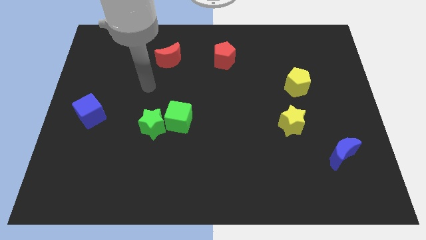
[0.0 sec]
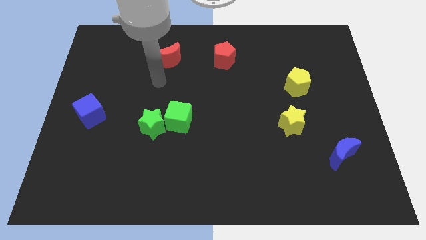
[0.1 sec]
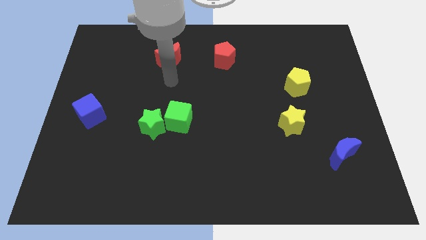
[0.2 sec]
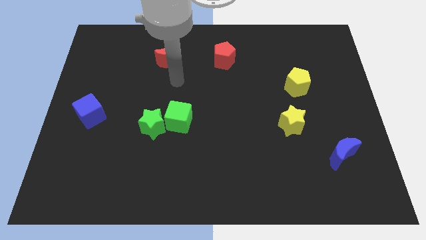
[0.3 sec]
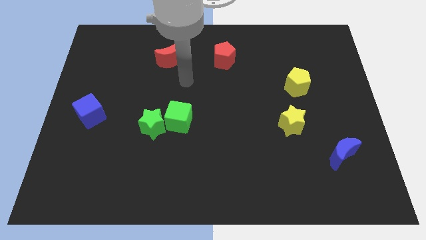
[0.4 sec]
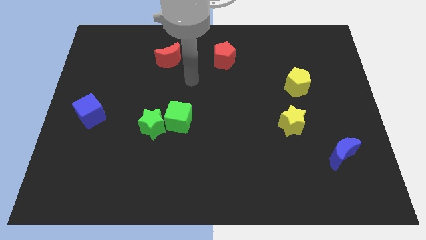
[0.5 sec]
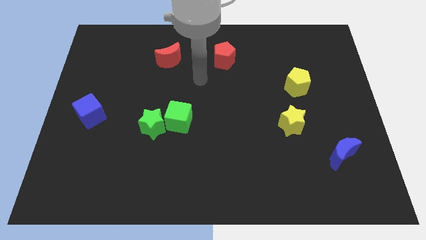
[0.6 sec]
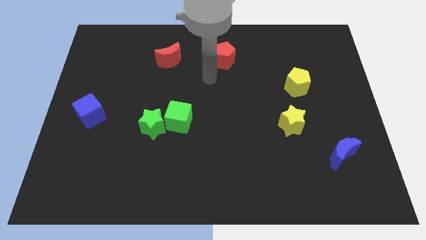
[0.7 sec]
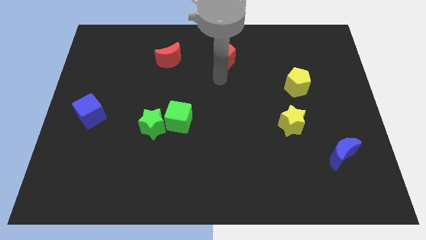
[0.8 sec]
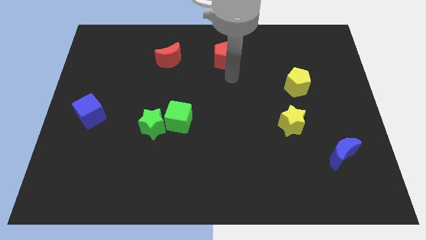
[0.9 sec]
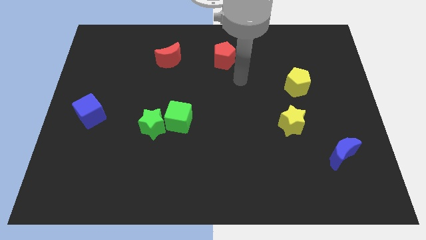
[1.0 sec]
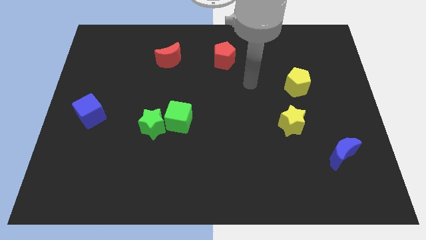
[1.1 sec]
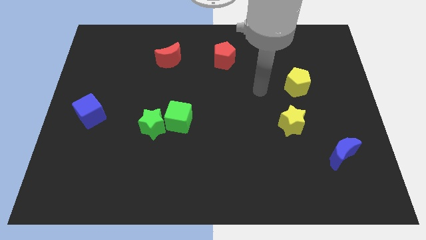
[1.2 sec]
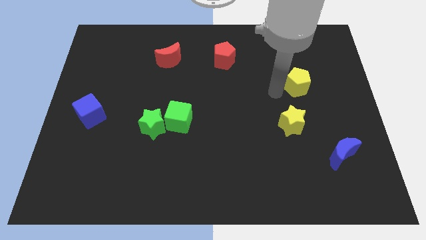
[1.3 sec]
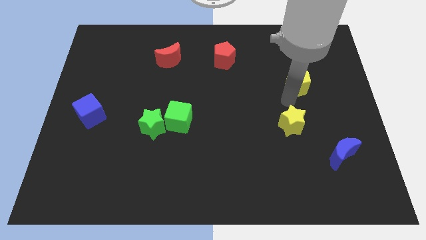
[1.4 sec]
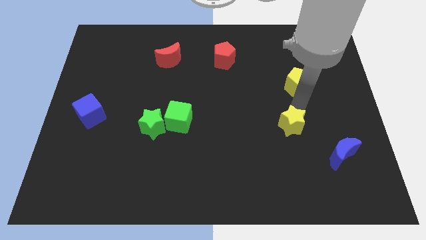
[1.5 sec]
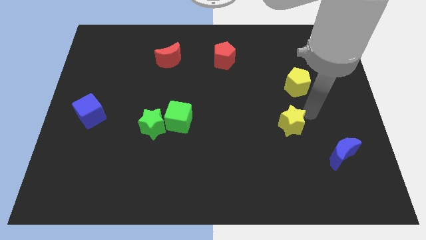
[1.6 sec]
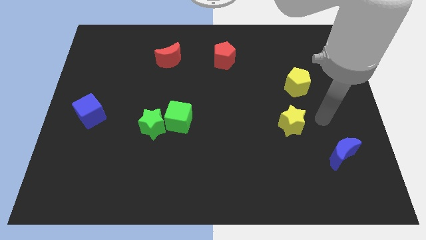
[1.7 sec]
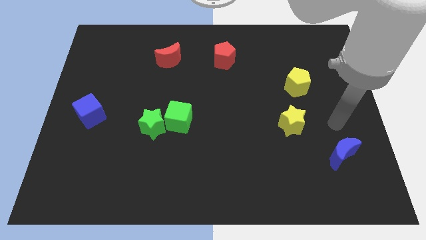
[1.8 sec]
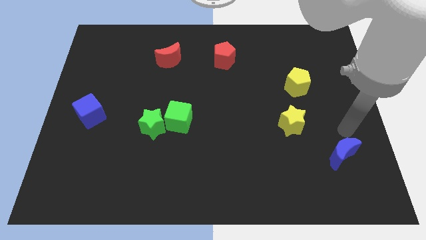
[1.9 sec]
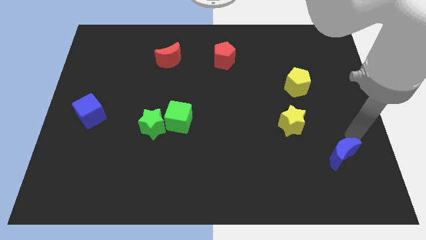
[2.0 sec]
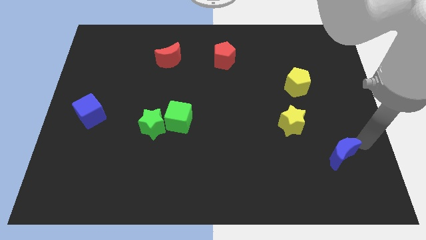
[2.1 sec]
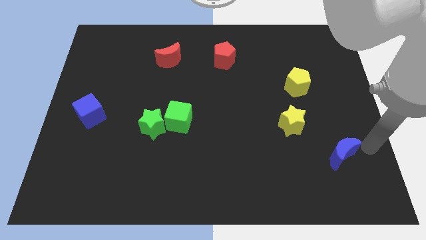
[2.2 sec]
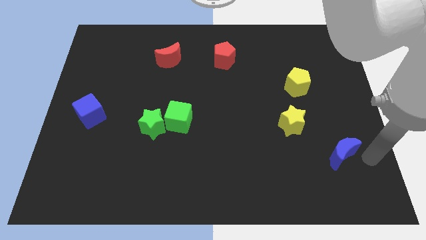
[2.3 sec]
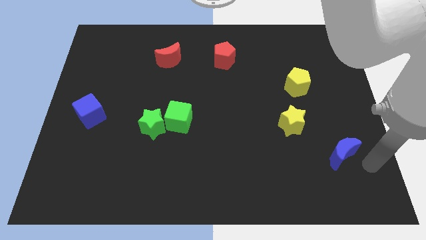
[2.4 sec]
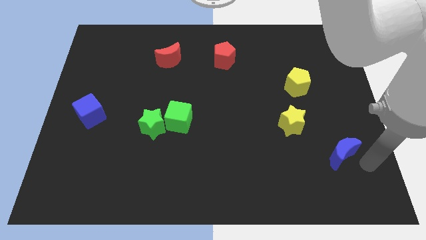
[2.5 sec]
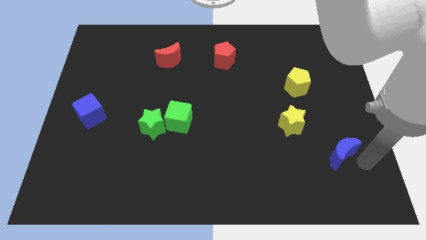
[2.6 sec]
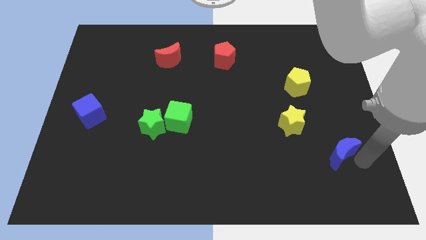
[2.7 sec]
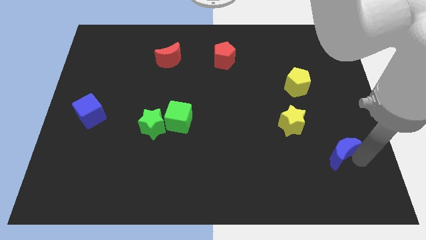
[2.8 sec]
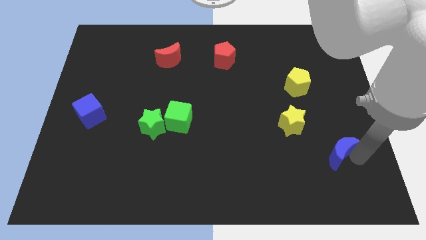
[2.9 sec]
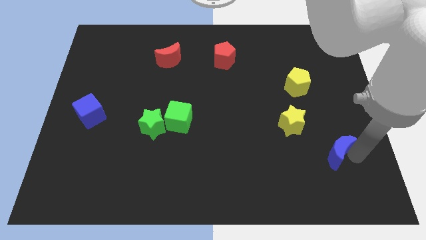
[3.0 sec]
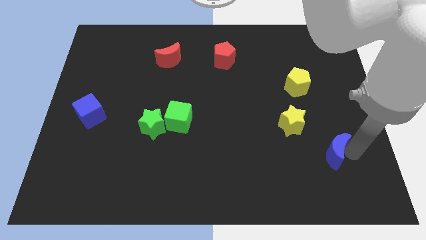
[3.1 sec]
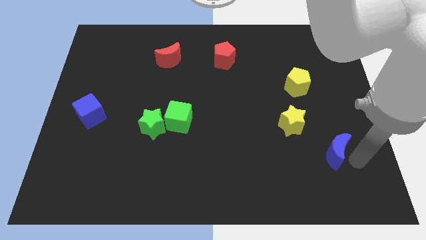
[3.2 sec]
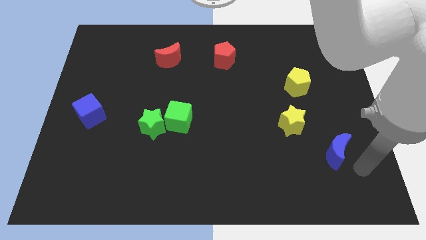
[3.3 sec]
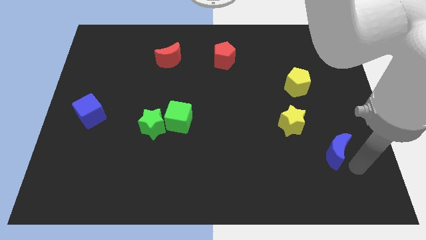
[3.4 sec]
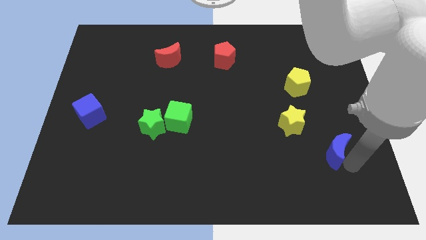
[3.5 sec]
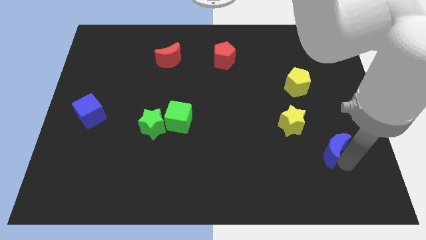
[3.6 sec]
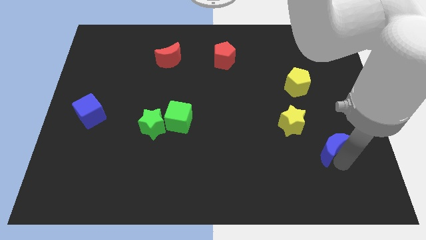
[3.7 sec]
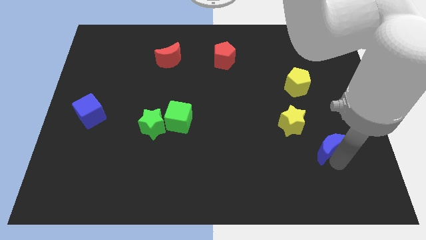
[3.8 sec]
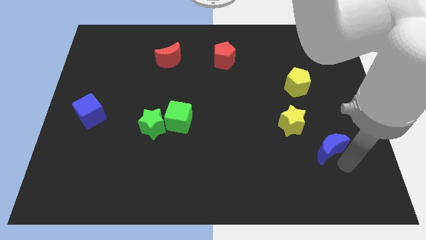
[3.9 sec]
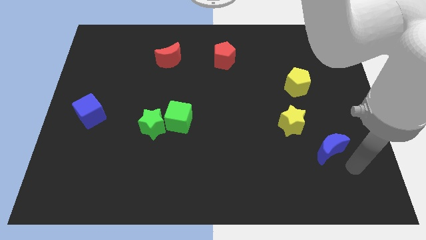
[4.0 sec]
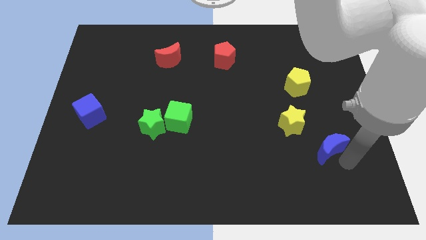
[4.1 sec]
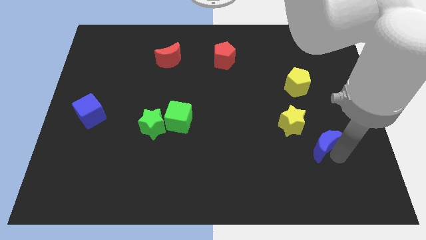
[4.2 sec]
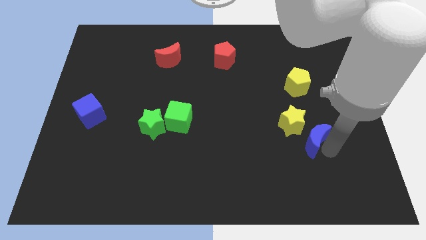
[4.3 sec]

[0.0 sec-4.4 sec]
put the blue moon towards the yellow star

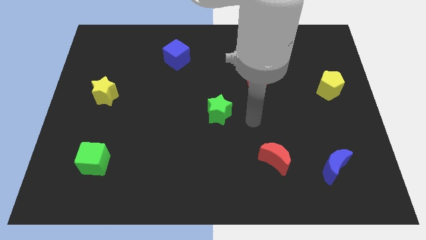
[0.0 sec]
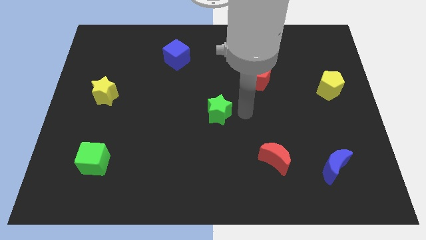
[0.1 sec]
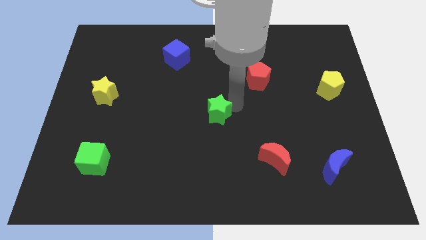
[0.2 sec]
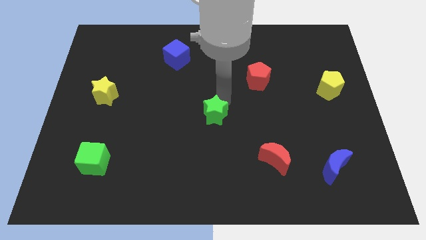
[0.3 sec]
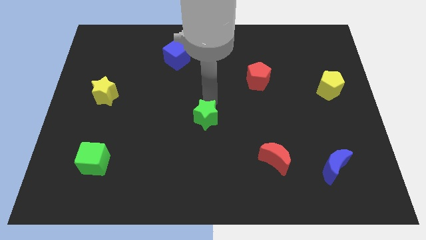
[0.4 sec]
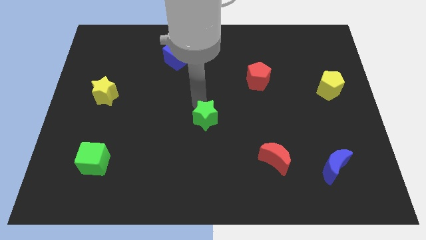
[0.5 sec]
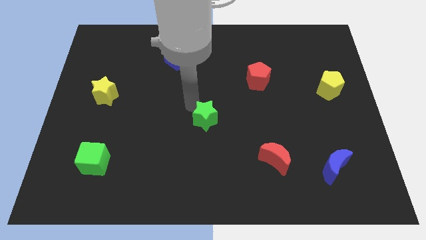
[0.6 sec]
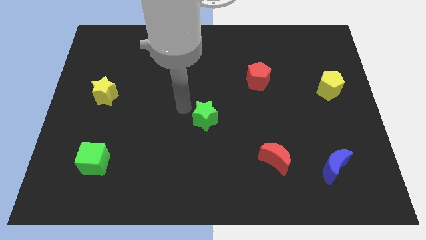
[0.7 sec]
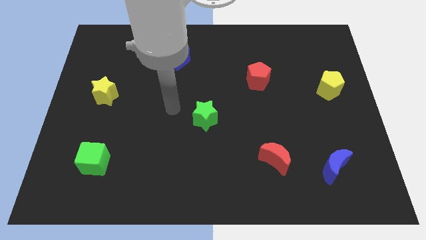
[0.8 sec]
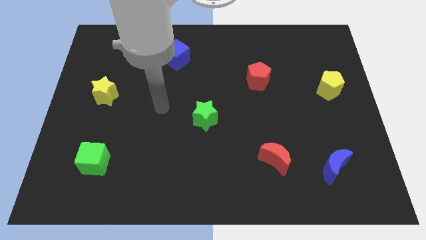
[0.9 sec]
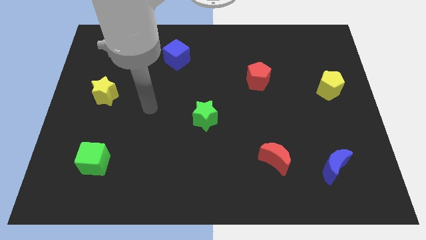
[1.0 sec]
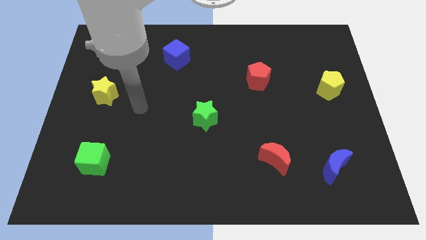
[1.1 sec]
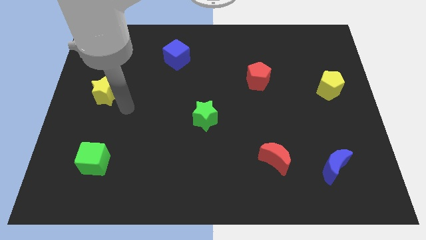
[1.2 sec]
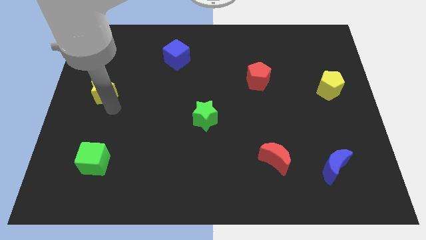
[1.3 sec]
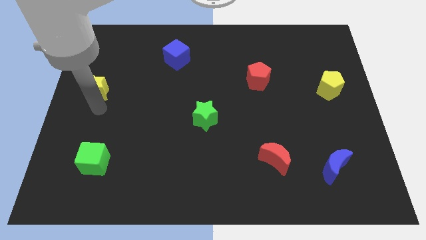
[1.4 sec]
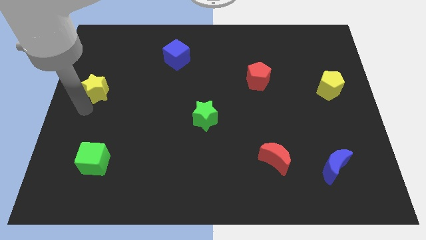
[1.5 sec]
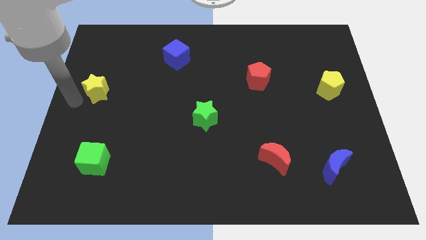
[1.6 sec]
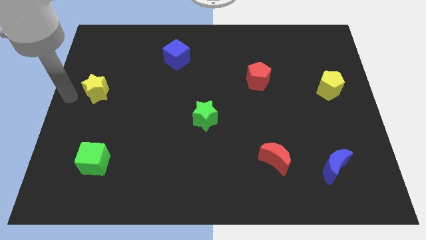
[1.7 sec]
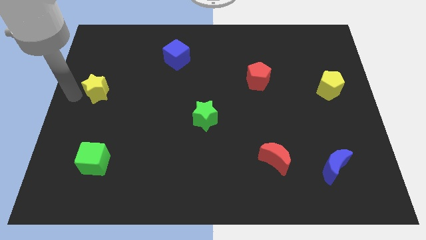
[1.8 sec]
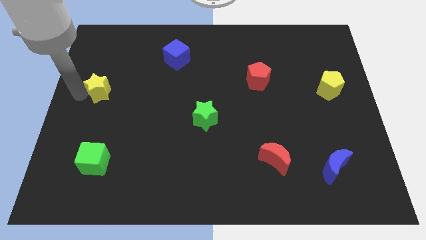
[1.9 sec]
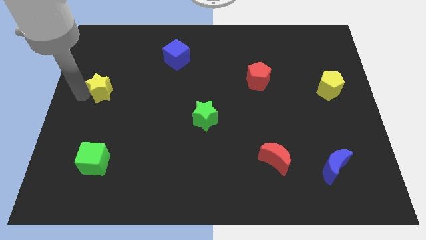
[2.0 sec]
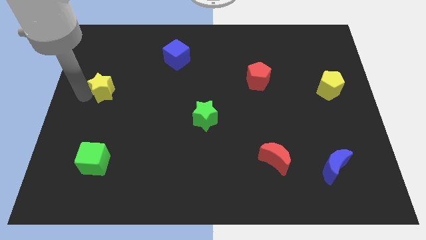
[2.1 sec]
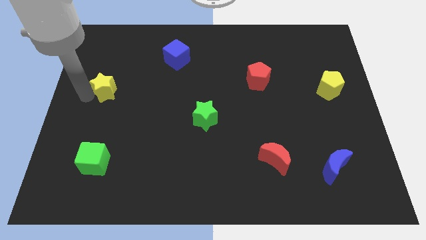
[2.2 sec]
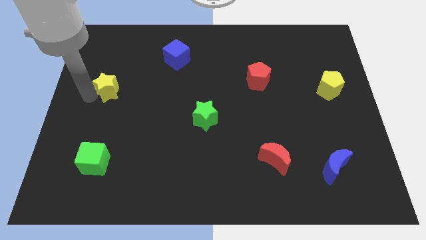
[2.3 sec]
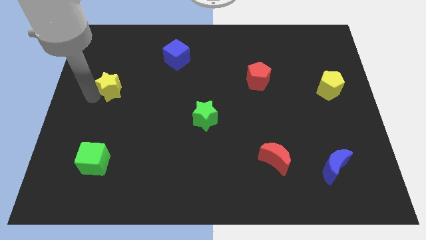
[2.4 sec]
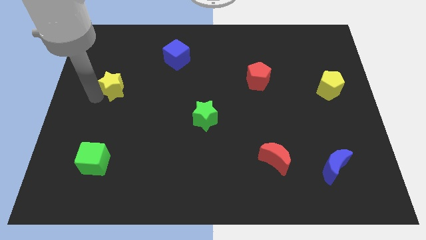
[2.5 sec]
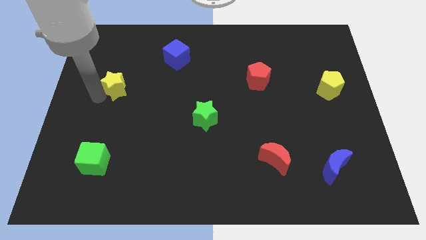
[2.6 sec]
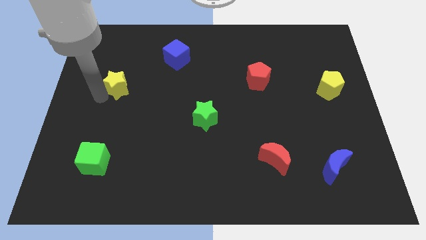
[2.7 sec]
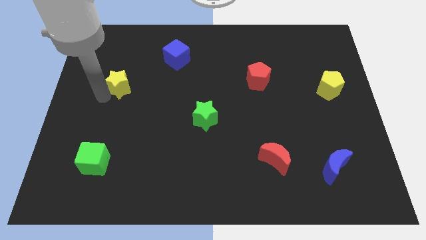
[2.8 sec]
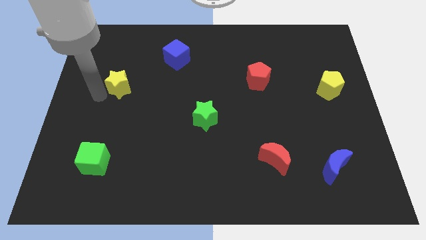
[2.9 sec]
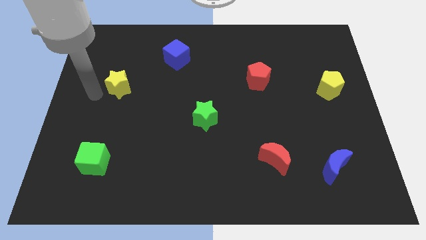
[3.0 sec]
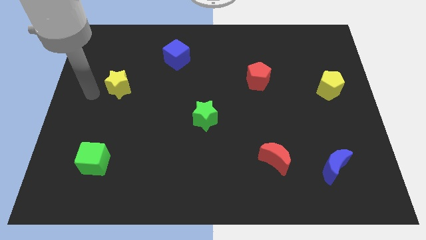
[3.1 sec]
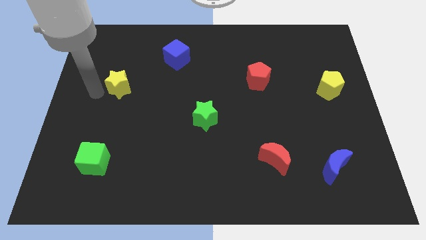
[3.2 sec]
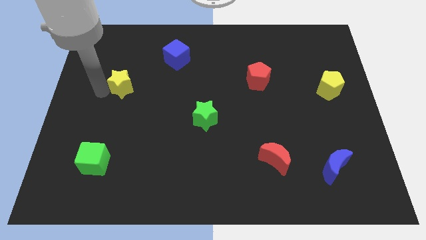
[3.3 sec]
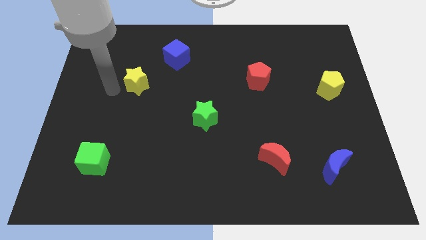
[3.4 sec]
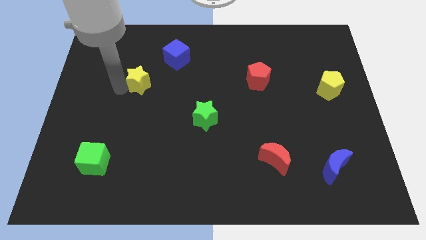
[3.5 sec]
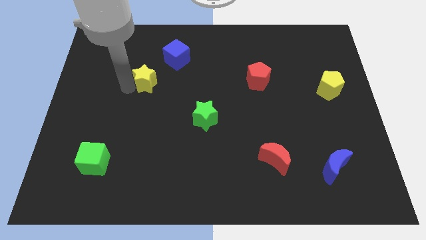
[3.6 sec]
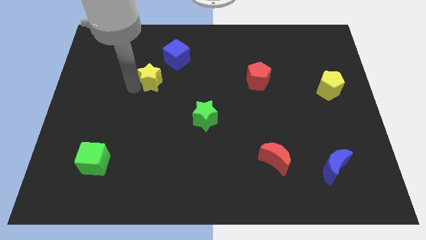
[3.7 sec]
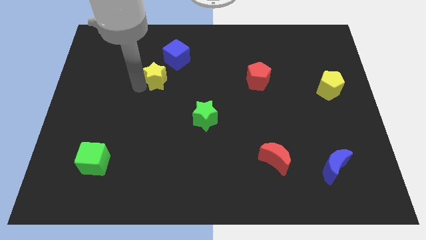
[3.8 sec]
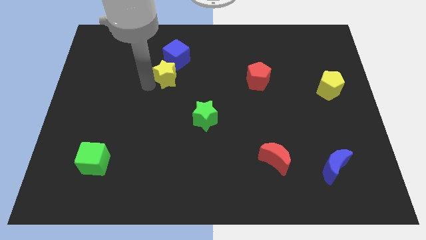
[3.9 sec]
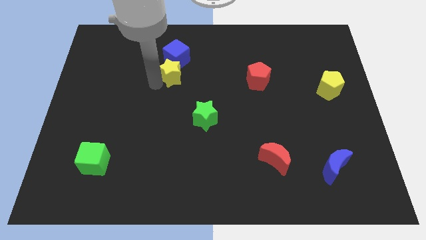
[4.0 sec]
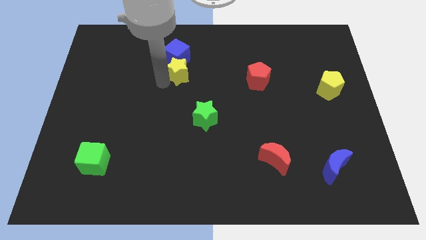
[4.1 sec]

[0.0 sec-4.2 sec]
move the yellow star towards the blue cube
